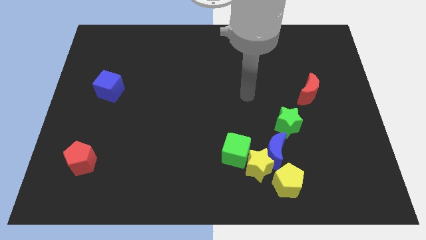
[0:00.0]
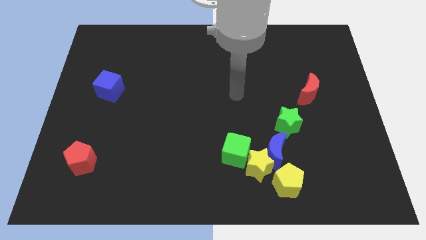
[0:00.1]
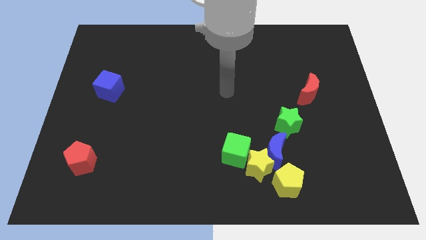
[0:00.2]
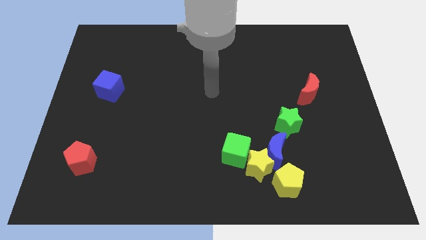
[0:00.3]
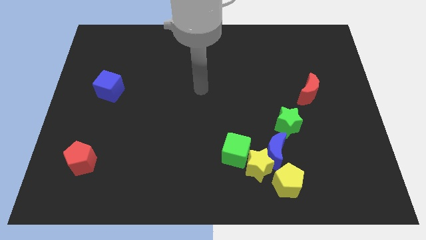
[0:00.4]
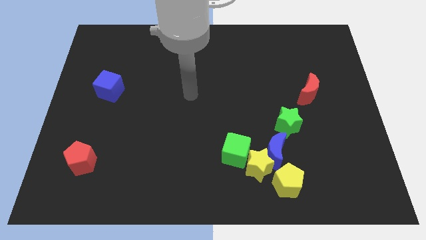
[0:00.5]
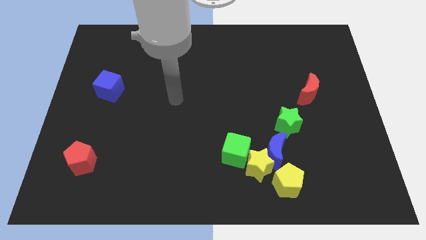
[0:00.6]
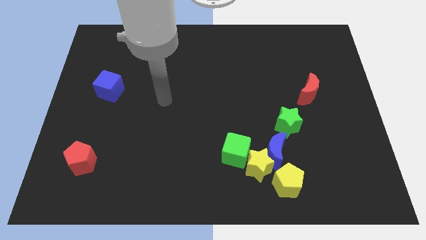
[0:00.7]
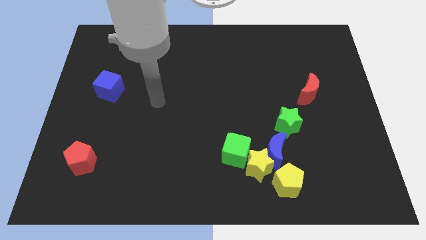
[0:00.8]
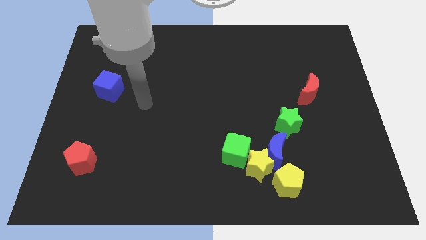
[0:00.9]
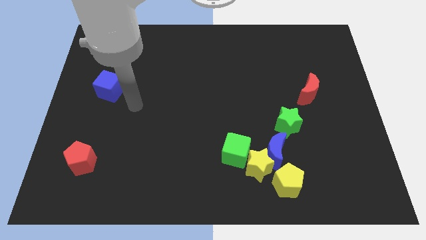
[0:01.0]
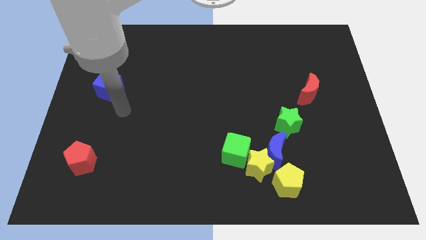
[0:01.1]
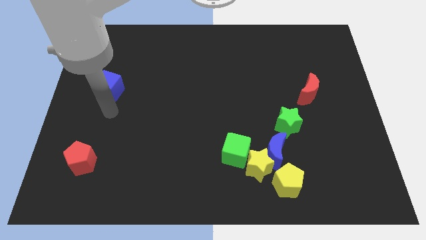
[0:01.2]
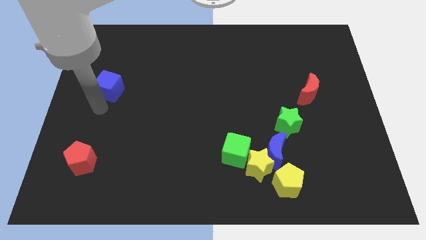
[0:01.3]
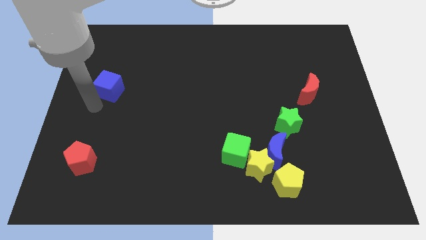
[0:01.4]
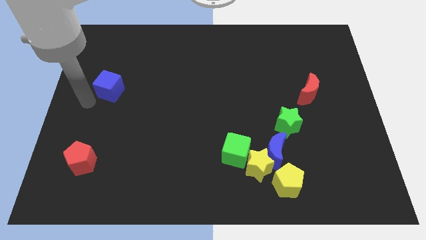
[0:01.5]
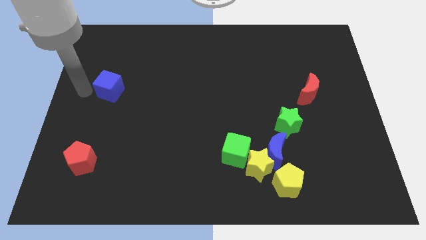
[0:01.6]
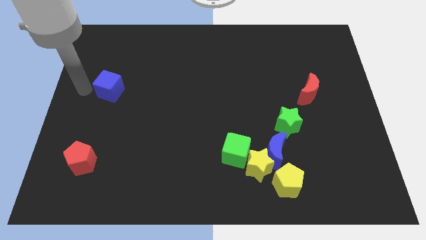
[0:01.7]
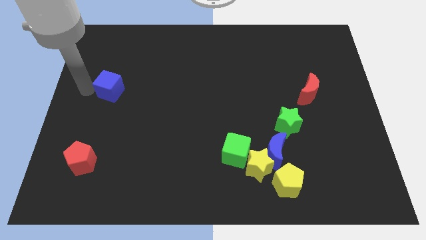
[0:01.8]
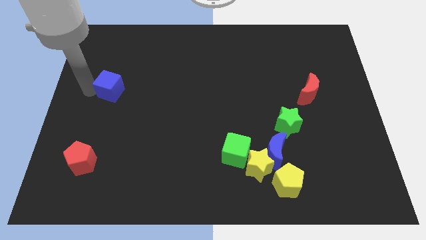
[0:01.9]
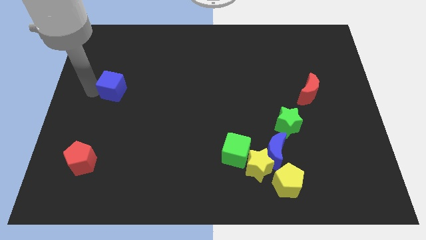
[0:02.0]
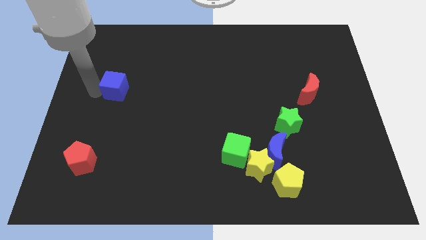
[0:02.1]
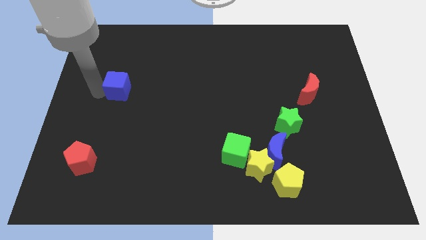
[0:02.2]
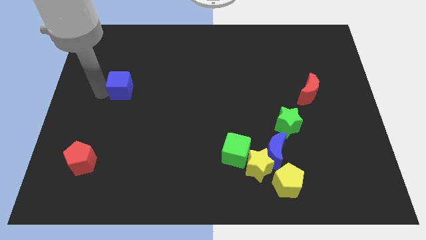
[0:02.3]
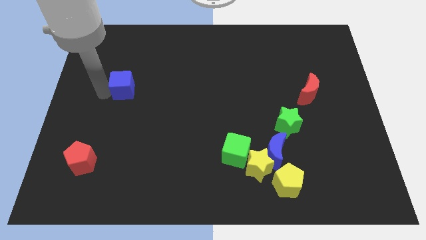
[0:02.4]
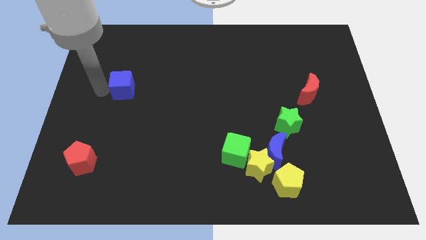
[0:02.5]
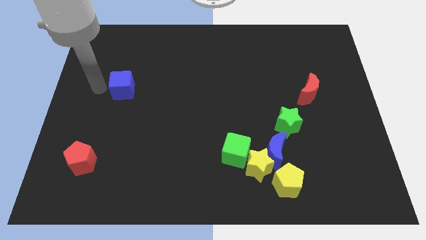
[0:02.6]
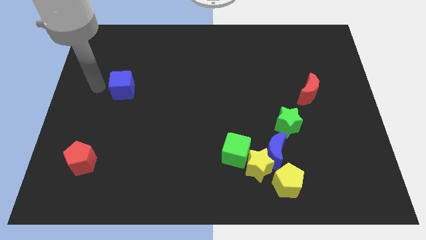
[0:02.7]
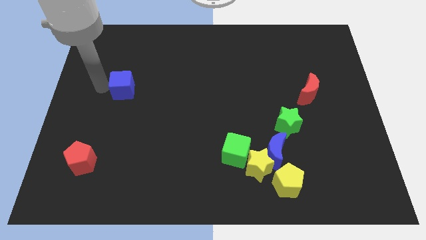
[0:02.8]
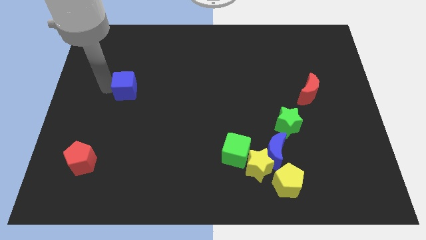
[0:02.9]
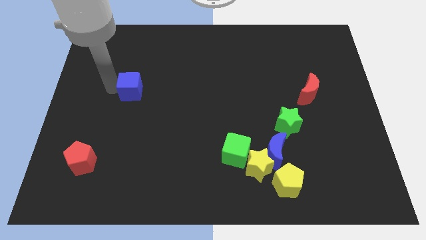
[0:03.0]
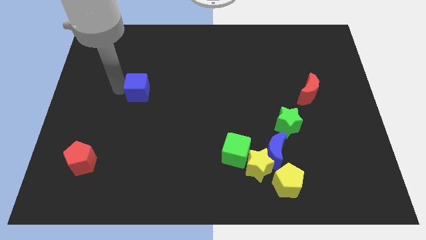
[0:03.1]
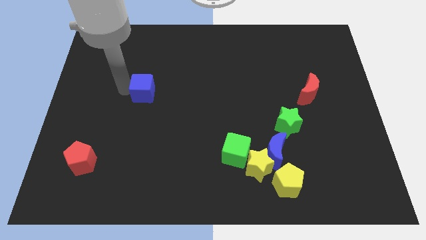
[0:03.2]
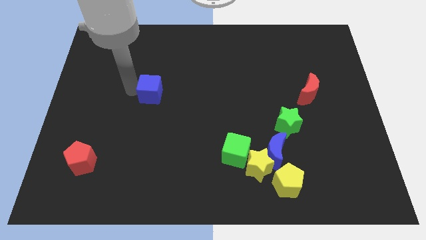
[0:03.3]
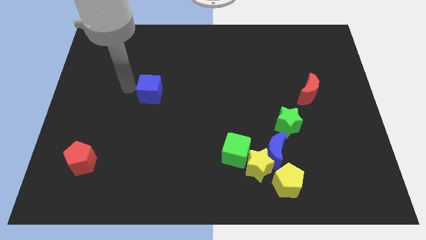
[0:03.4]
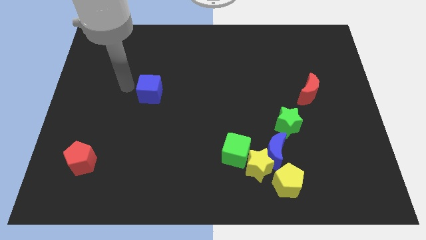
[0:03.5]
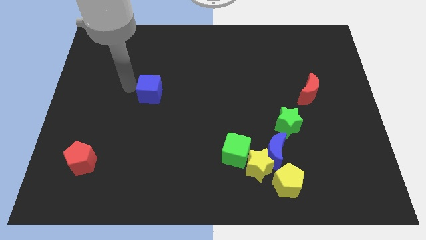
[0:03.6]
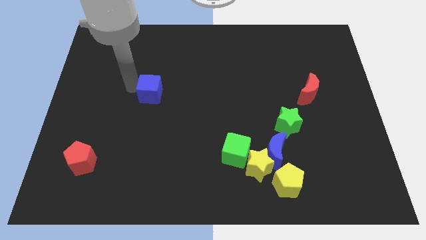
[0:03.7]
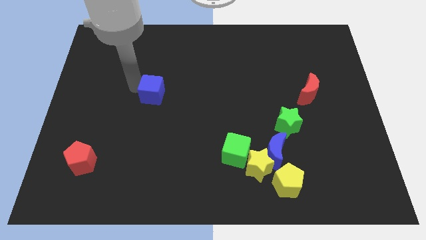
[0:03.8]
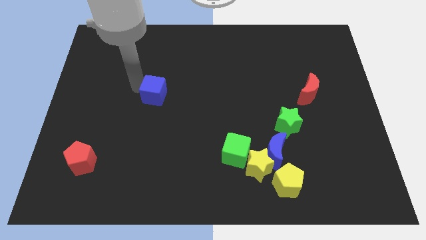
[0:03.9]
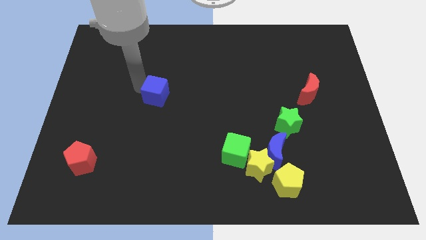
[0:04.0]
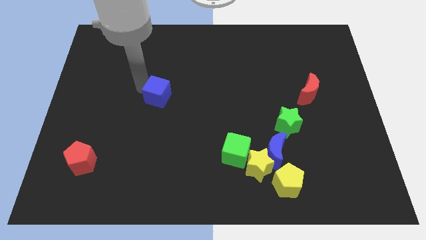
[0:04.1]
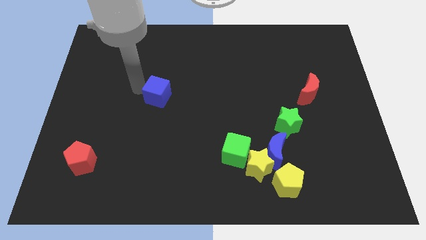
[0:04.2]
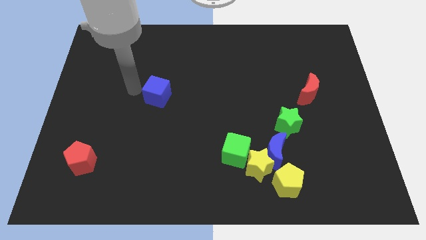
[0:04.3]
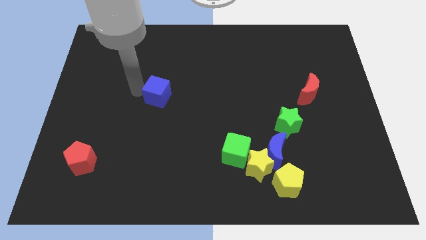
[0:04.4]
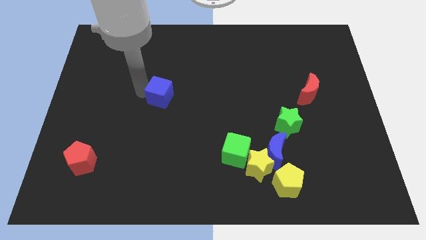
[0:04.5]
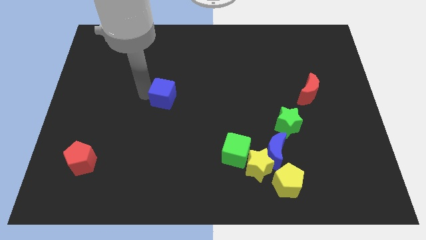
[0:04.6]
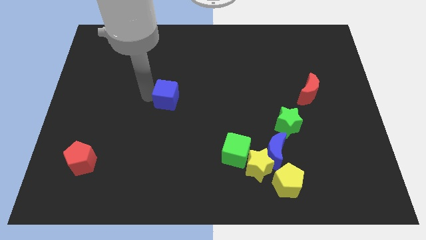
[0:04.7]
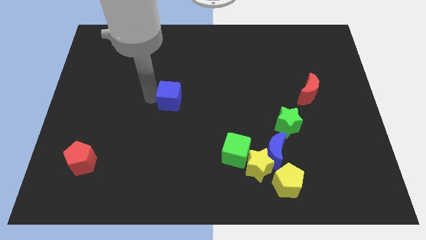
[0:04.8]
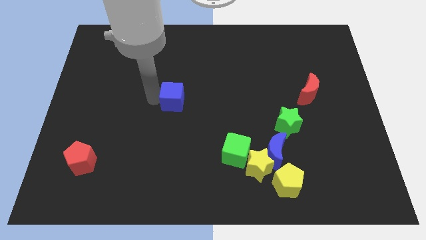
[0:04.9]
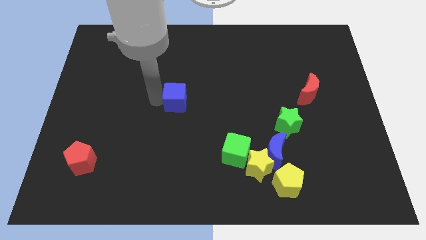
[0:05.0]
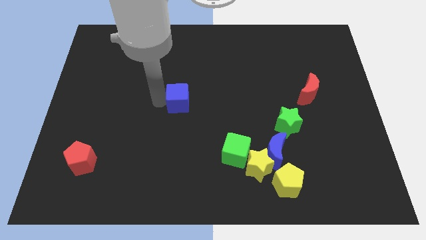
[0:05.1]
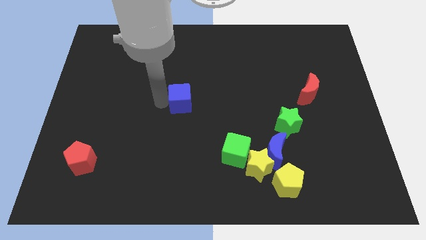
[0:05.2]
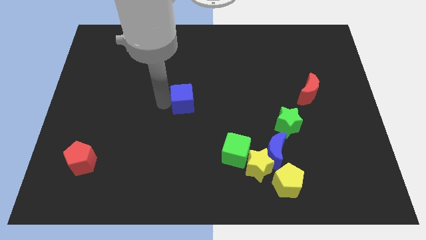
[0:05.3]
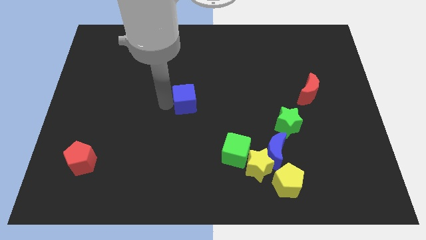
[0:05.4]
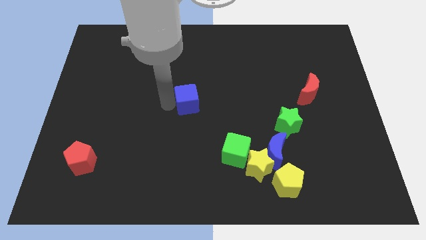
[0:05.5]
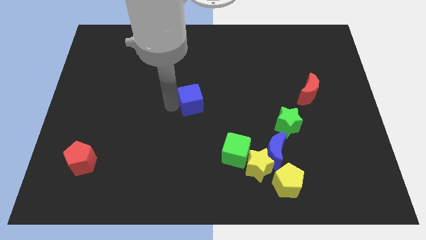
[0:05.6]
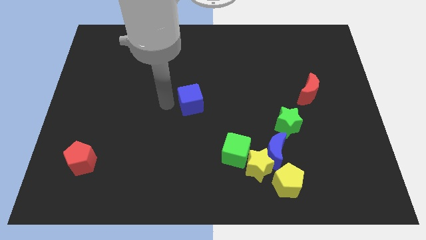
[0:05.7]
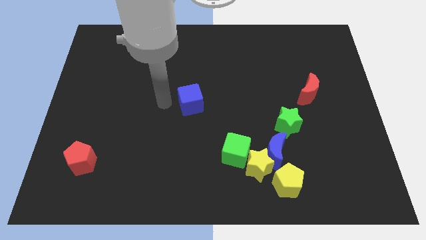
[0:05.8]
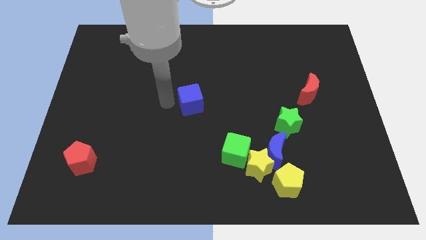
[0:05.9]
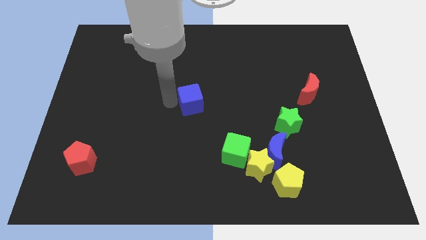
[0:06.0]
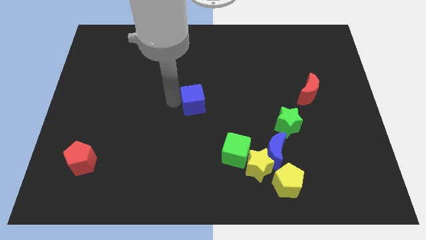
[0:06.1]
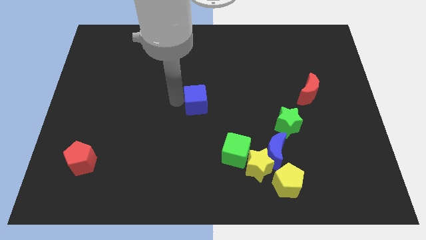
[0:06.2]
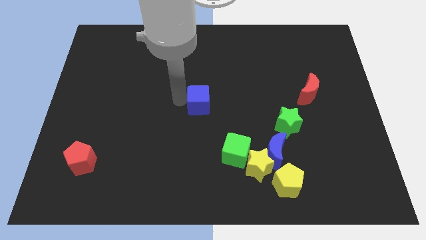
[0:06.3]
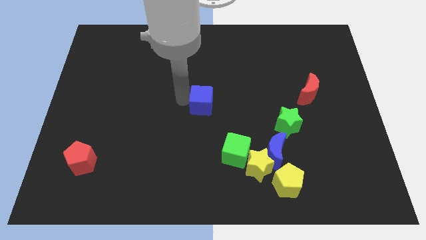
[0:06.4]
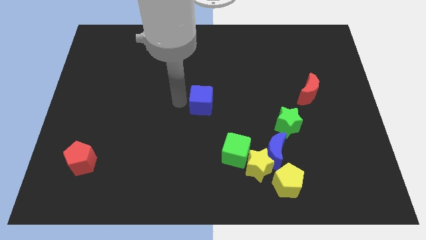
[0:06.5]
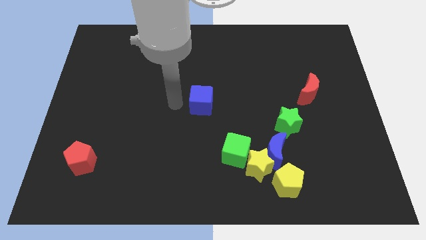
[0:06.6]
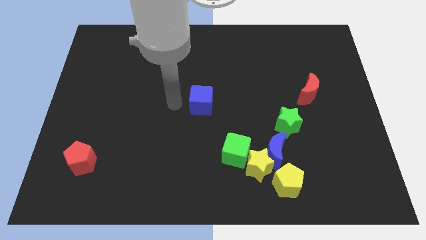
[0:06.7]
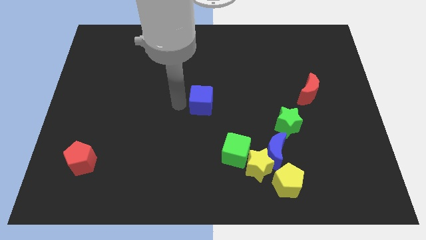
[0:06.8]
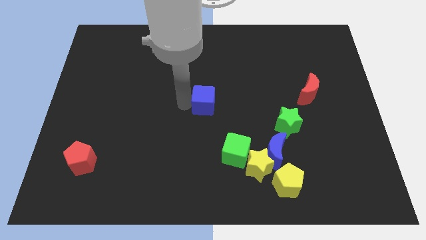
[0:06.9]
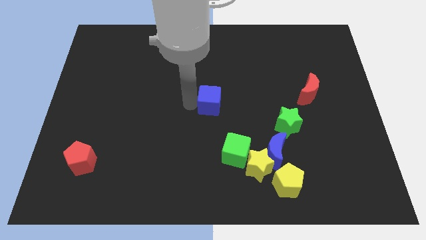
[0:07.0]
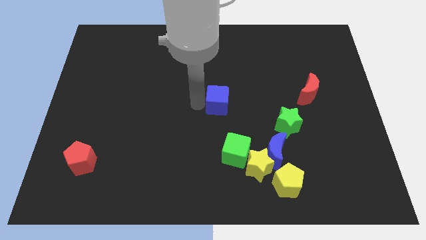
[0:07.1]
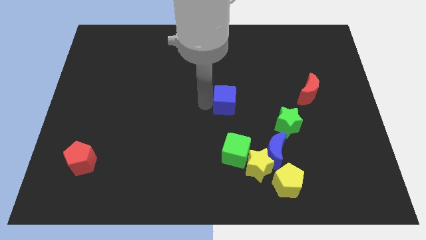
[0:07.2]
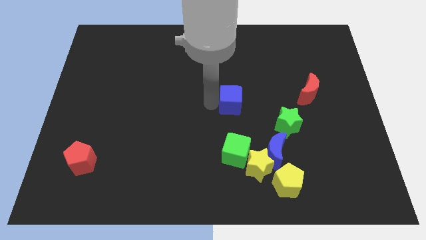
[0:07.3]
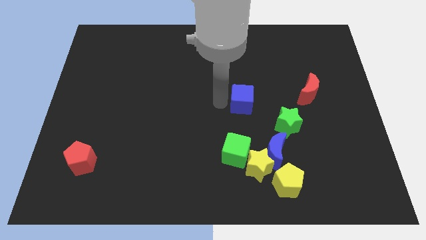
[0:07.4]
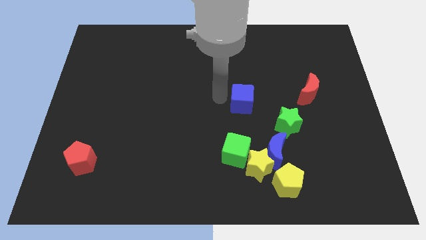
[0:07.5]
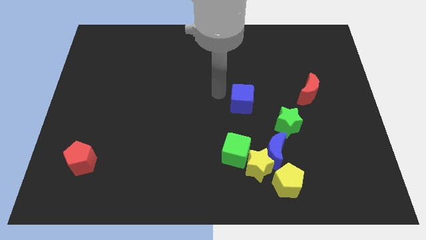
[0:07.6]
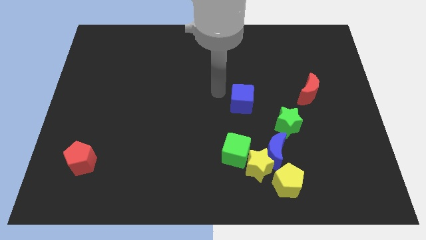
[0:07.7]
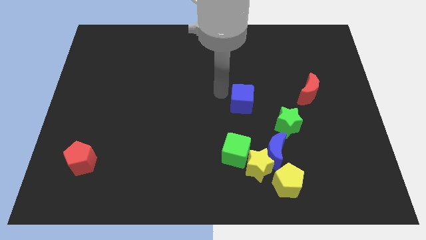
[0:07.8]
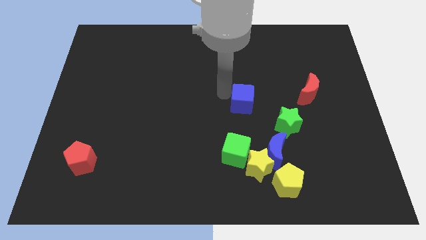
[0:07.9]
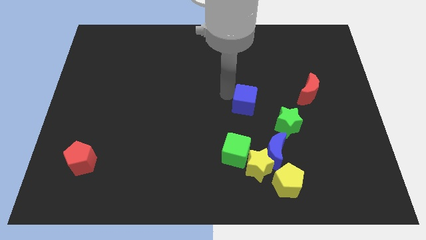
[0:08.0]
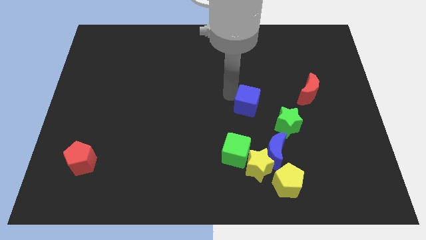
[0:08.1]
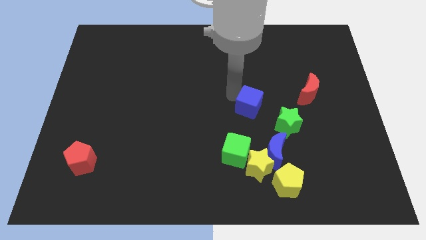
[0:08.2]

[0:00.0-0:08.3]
put the blue cube above the blue moon
